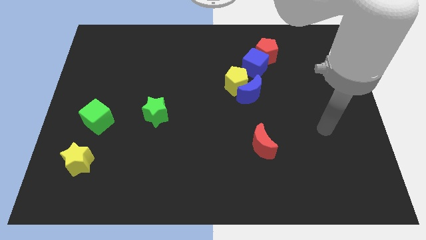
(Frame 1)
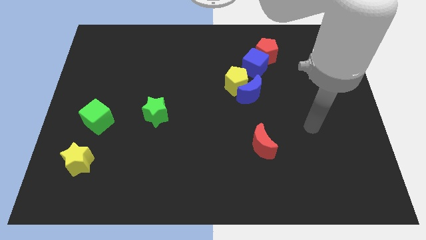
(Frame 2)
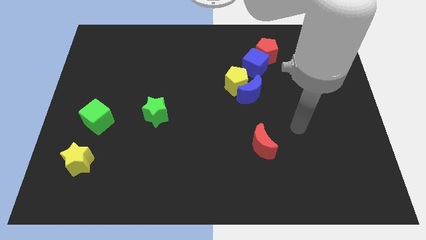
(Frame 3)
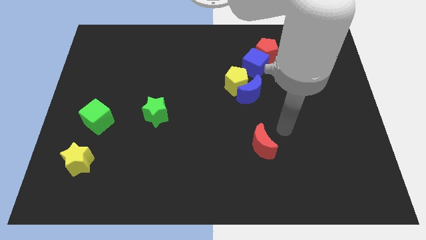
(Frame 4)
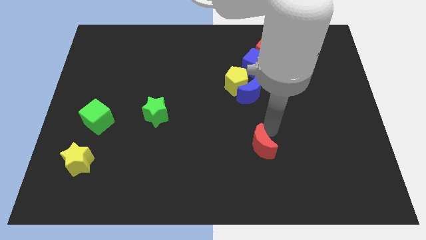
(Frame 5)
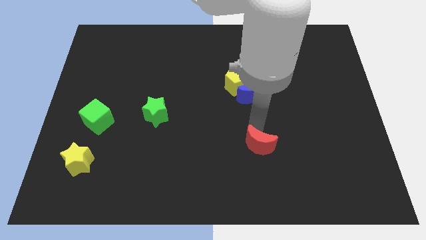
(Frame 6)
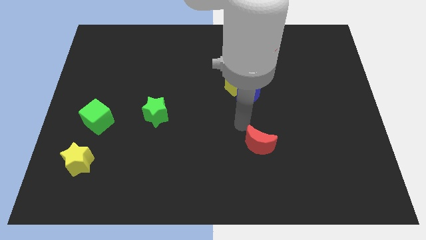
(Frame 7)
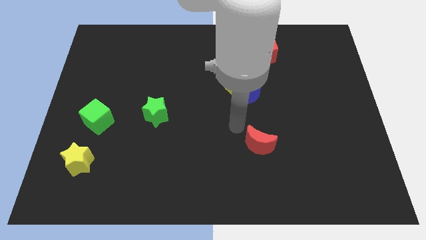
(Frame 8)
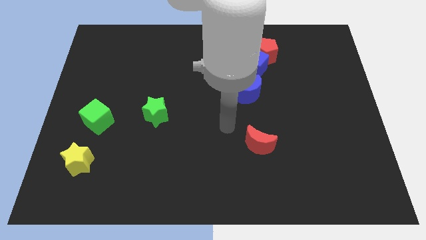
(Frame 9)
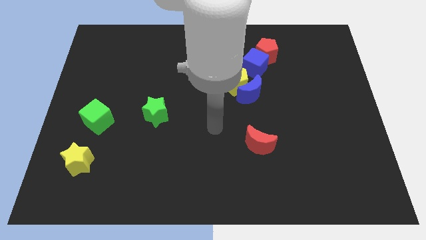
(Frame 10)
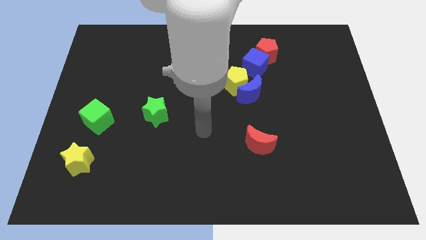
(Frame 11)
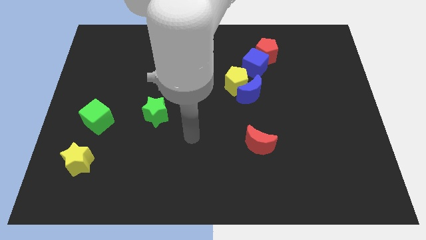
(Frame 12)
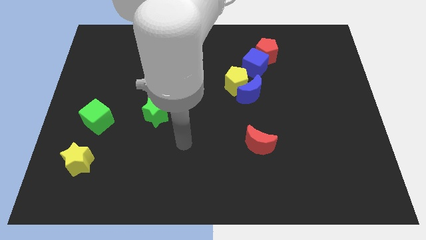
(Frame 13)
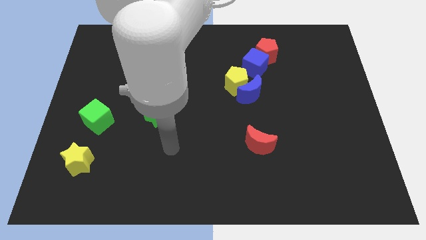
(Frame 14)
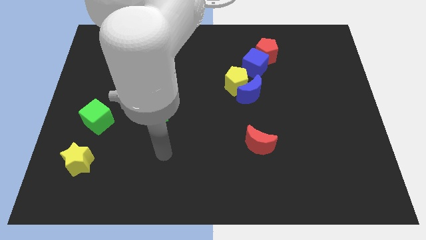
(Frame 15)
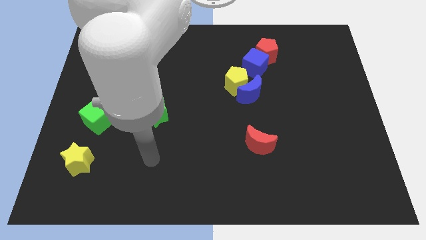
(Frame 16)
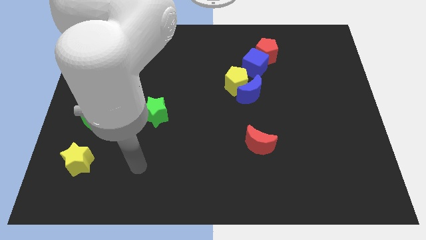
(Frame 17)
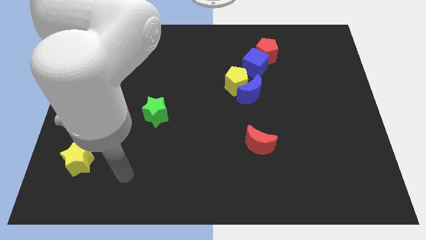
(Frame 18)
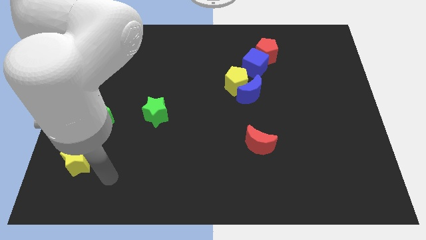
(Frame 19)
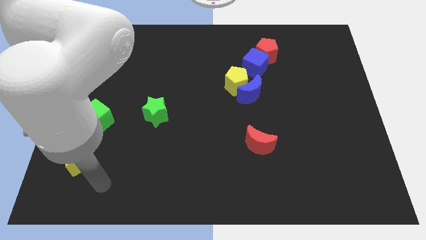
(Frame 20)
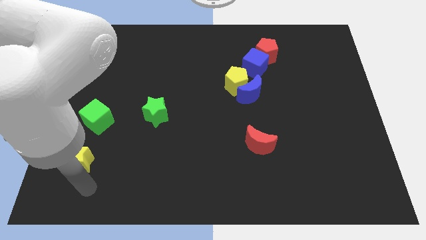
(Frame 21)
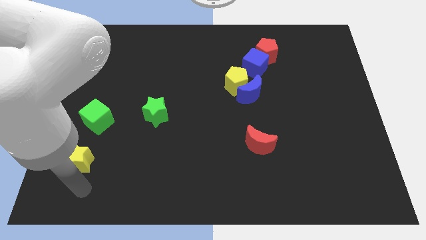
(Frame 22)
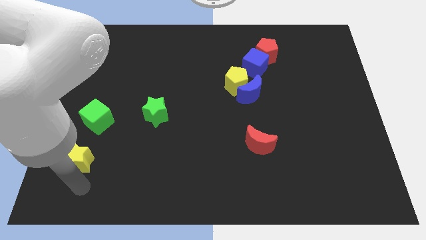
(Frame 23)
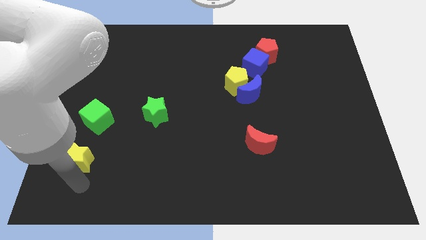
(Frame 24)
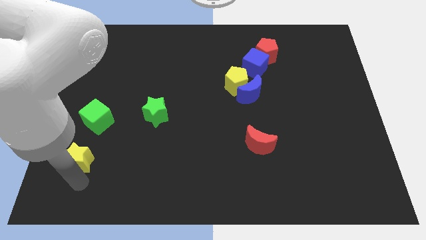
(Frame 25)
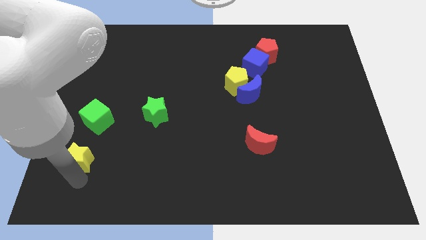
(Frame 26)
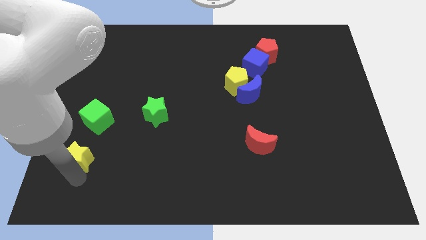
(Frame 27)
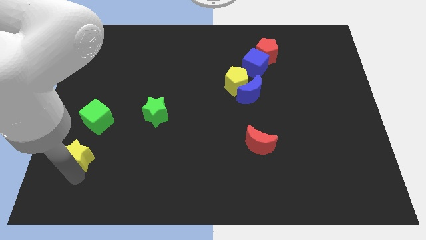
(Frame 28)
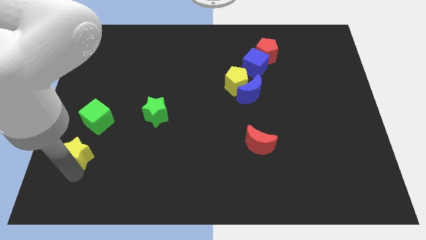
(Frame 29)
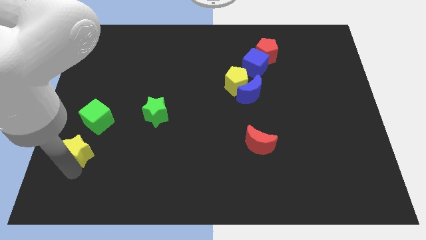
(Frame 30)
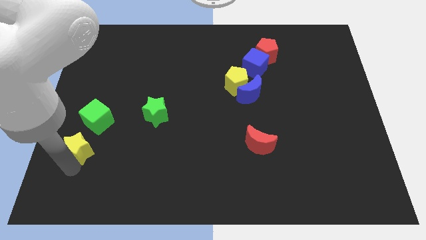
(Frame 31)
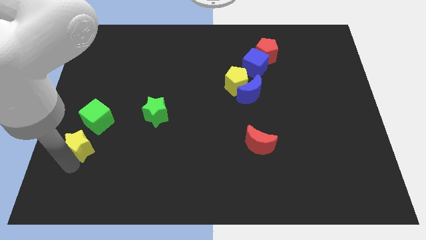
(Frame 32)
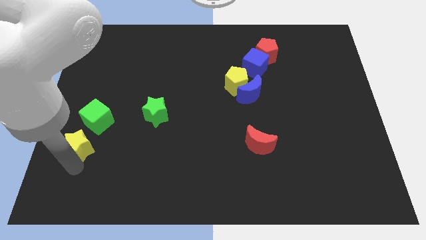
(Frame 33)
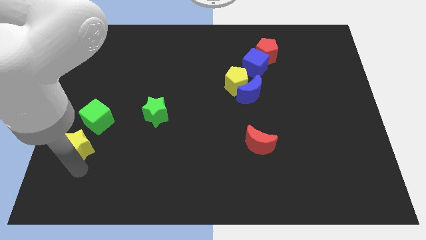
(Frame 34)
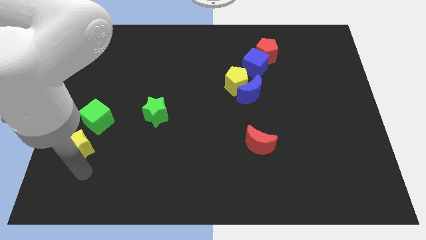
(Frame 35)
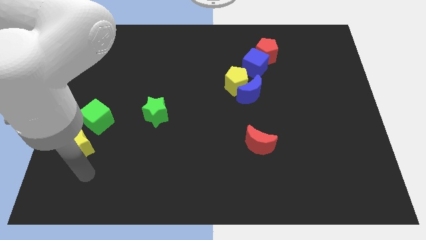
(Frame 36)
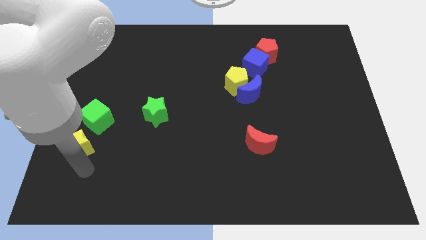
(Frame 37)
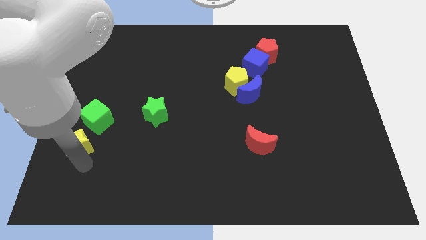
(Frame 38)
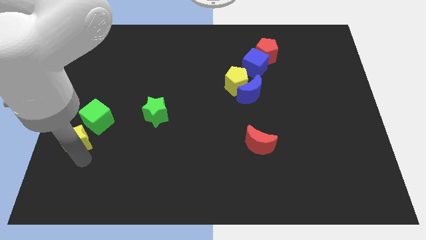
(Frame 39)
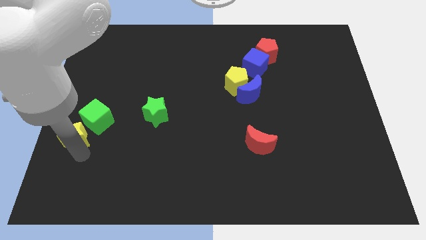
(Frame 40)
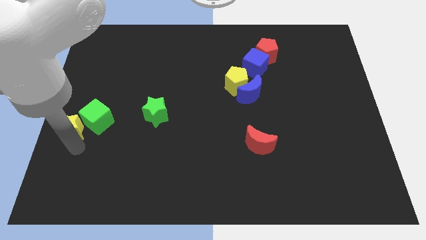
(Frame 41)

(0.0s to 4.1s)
push the yellow star a little upwards

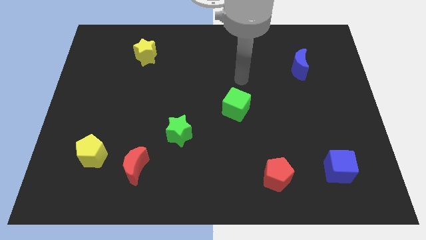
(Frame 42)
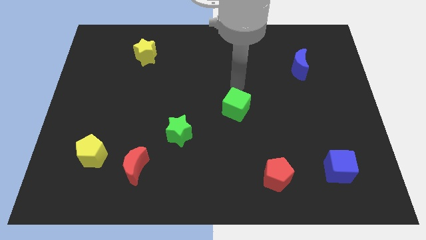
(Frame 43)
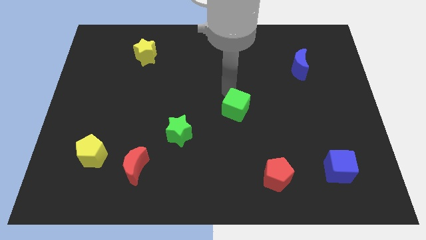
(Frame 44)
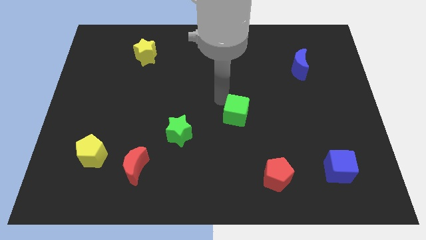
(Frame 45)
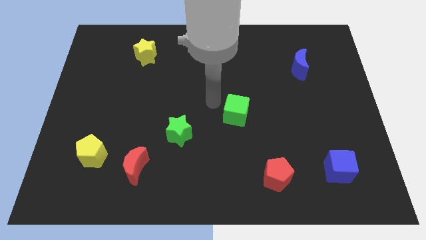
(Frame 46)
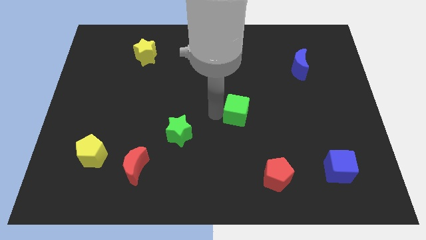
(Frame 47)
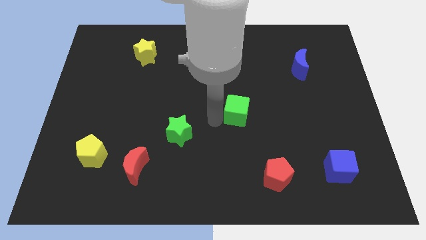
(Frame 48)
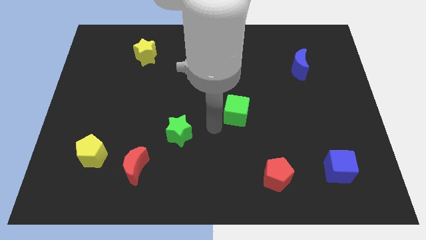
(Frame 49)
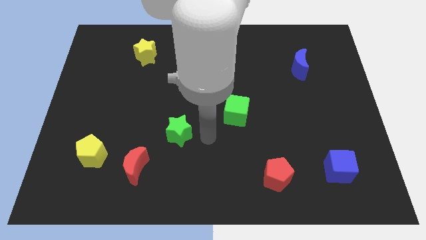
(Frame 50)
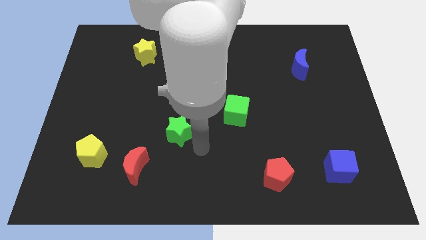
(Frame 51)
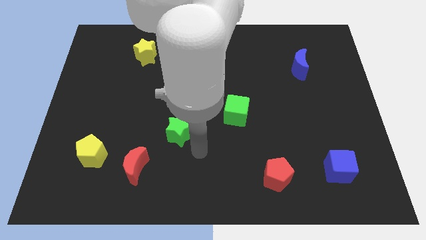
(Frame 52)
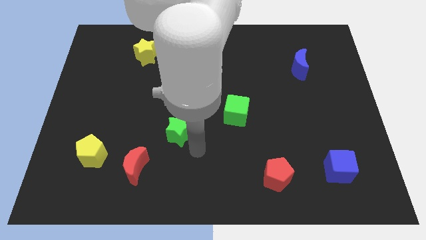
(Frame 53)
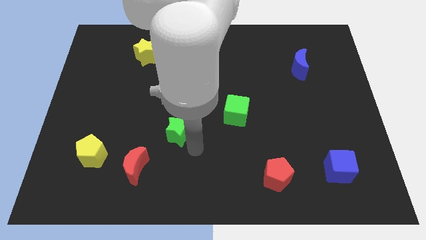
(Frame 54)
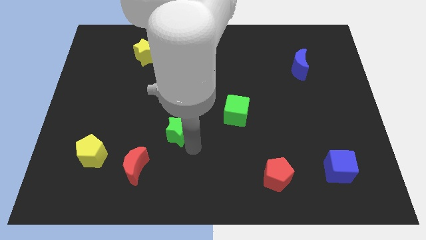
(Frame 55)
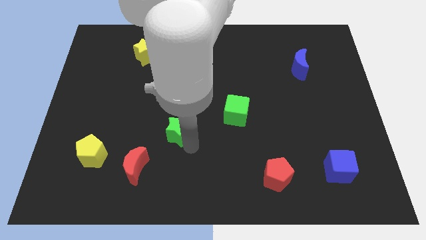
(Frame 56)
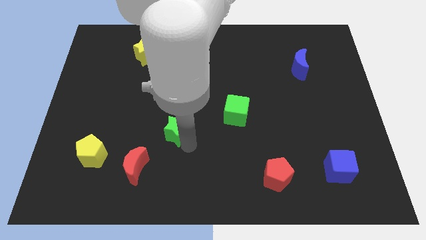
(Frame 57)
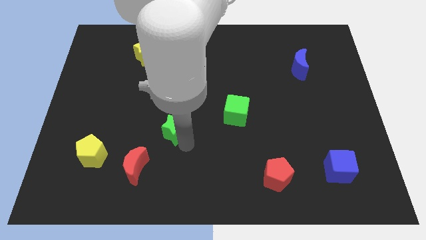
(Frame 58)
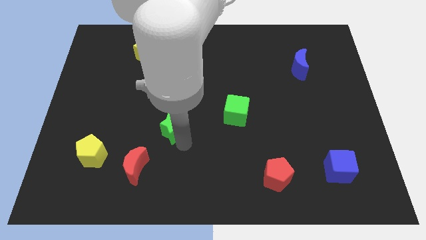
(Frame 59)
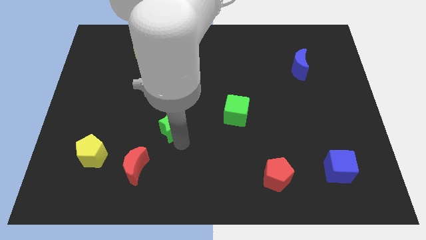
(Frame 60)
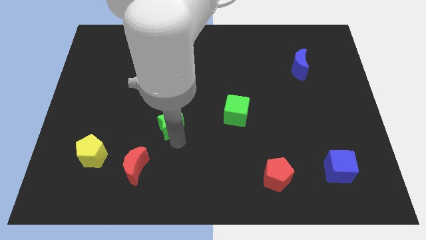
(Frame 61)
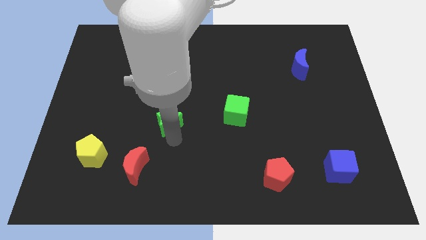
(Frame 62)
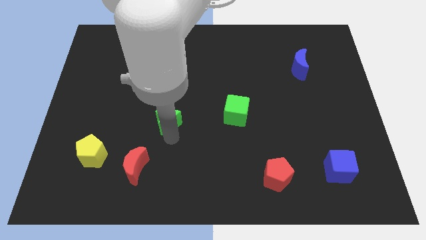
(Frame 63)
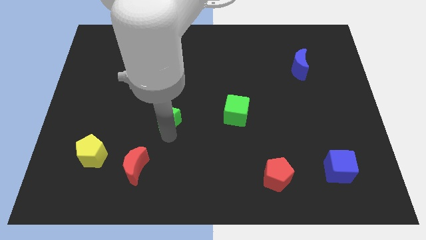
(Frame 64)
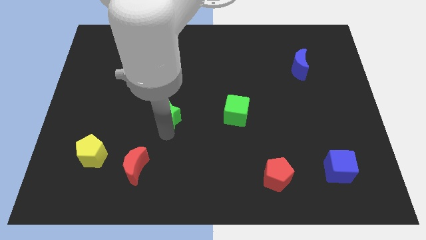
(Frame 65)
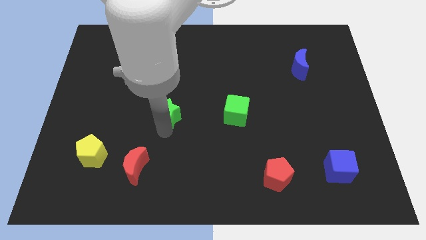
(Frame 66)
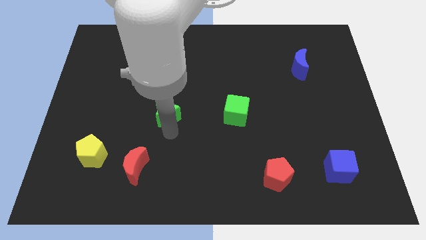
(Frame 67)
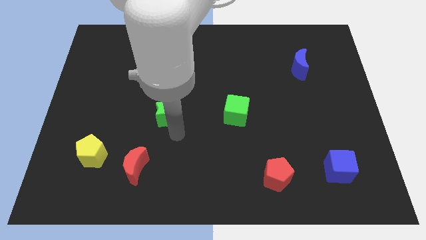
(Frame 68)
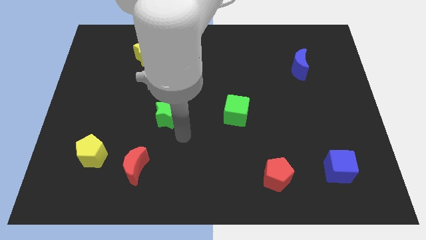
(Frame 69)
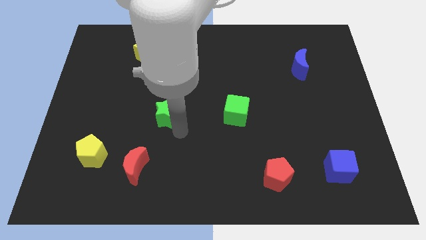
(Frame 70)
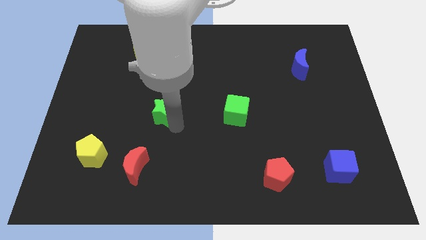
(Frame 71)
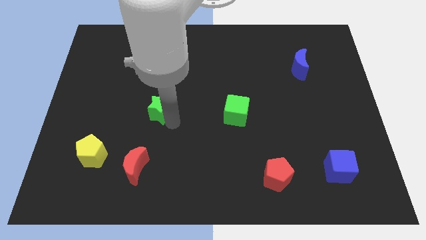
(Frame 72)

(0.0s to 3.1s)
slide the green star upwards and then to the left slightly

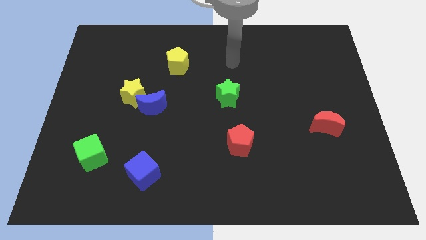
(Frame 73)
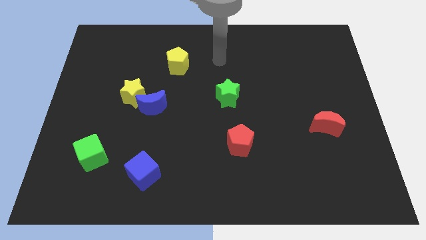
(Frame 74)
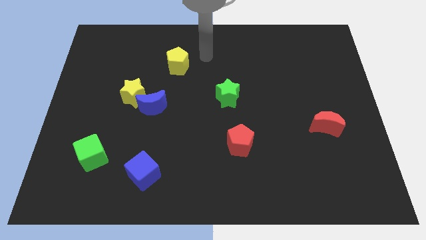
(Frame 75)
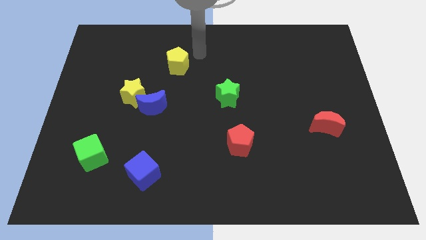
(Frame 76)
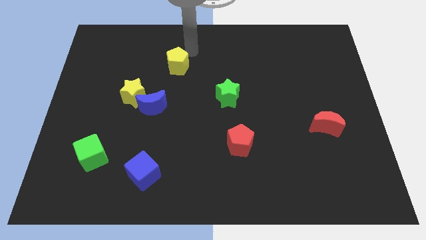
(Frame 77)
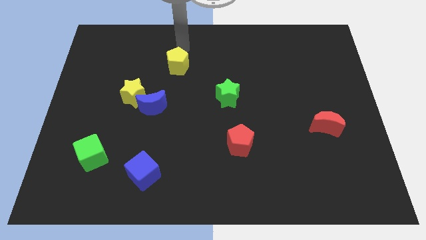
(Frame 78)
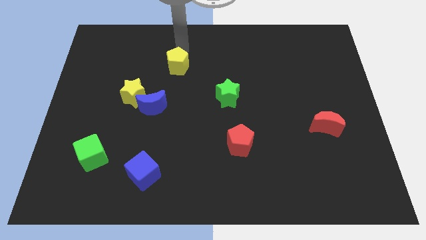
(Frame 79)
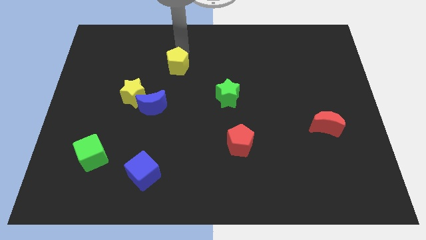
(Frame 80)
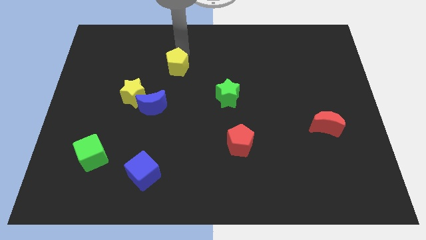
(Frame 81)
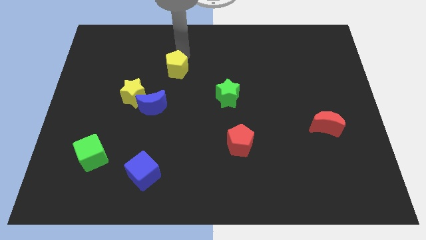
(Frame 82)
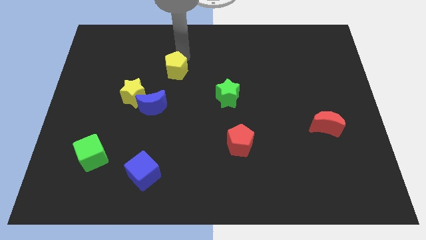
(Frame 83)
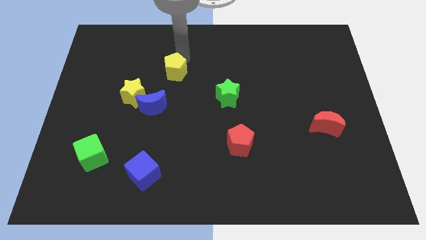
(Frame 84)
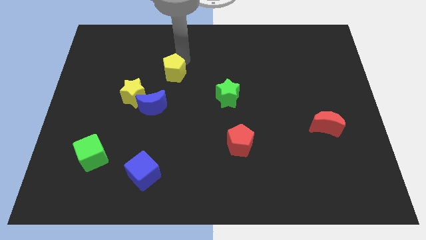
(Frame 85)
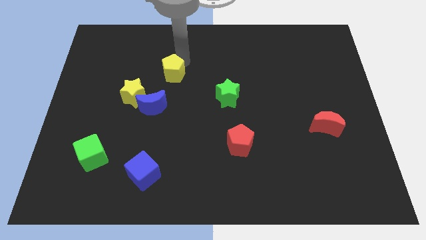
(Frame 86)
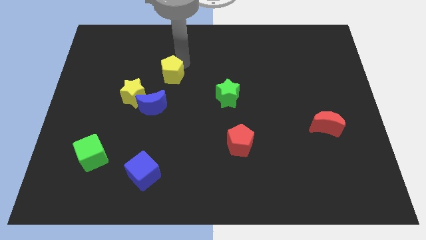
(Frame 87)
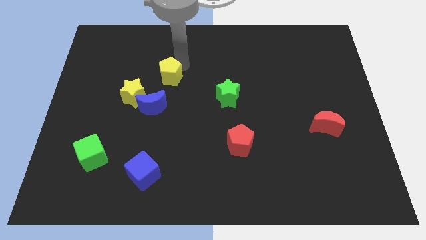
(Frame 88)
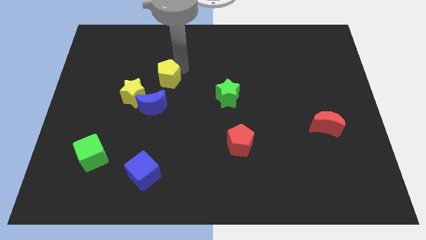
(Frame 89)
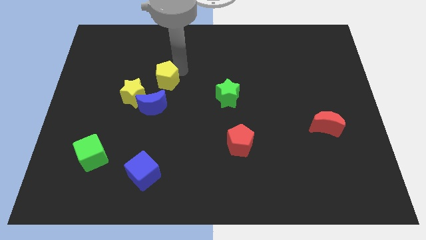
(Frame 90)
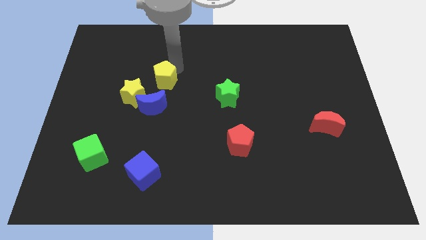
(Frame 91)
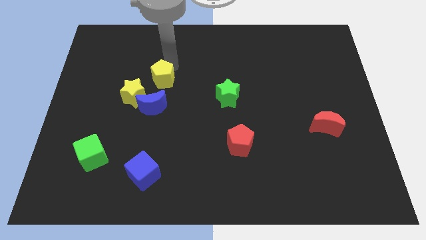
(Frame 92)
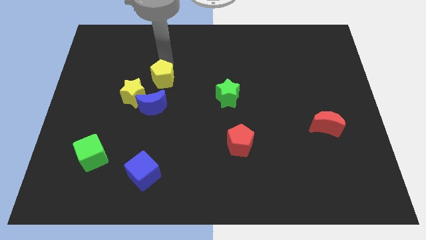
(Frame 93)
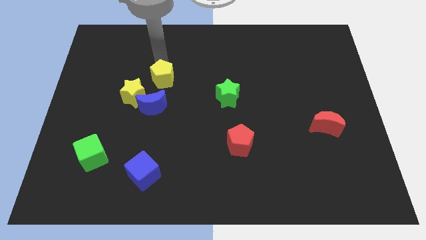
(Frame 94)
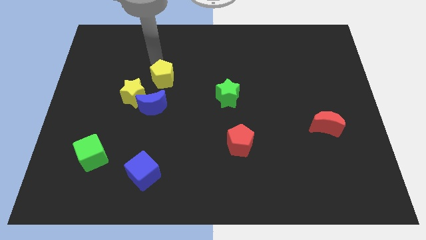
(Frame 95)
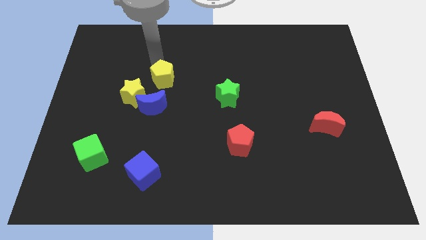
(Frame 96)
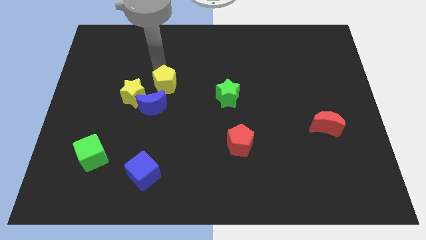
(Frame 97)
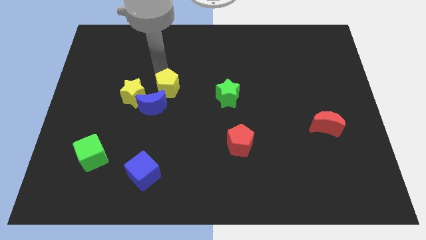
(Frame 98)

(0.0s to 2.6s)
slightly slide the yellow pentagon down
